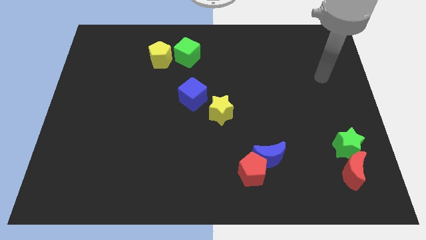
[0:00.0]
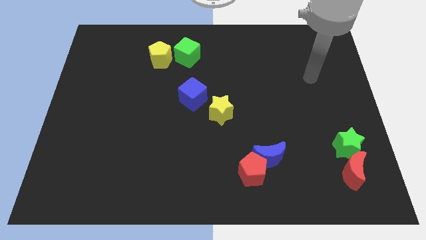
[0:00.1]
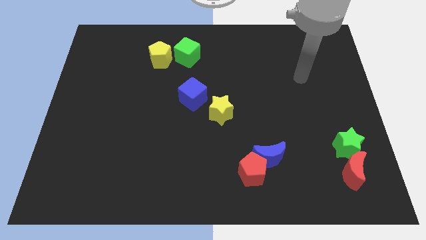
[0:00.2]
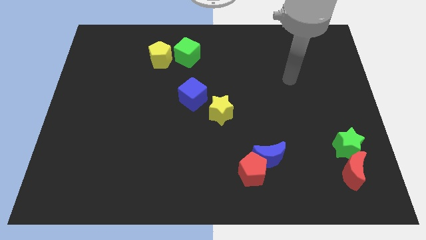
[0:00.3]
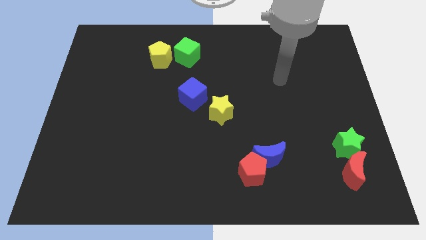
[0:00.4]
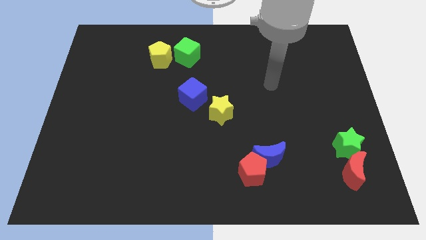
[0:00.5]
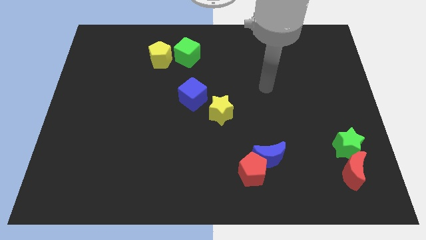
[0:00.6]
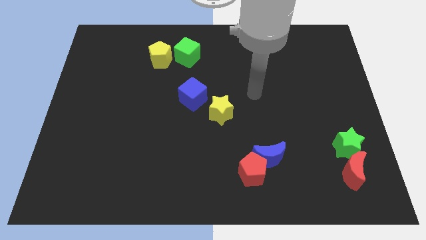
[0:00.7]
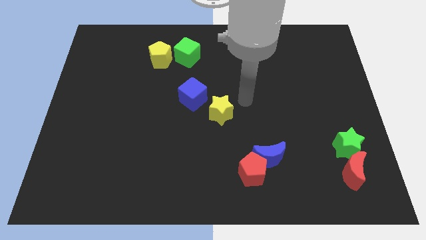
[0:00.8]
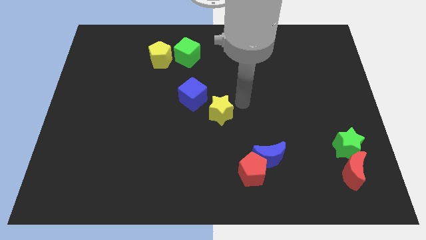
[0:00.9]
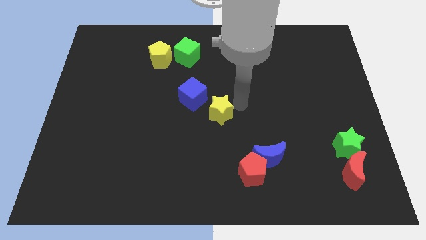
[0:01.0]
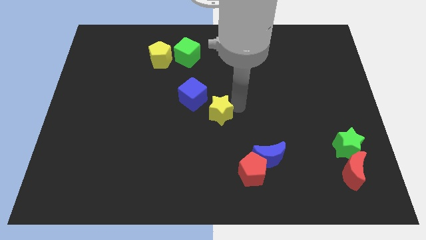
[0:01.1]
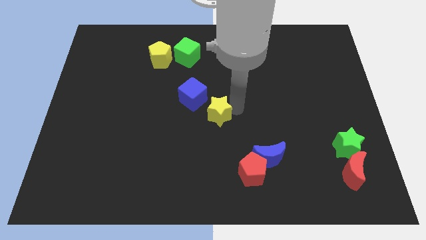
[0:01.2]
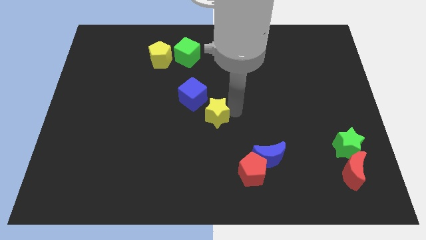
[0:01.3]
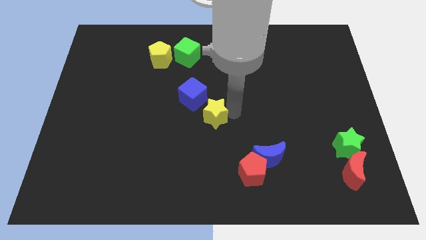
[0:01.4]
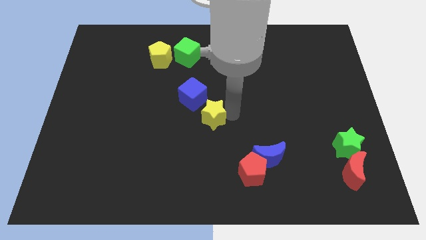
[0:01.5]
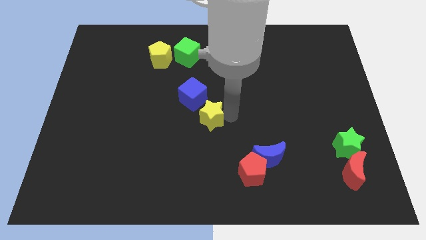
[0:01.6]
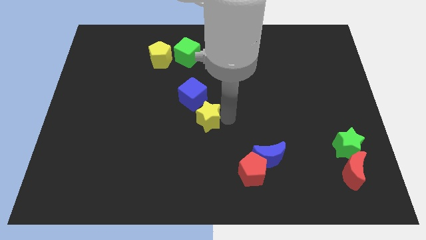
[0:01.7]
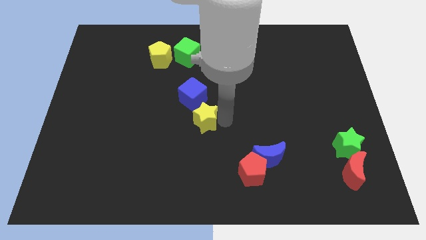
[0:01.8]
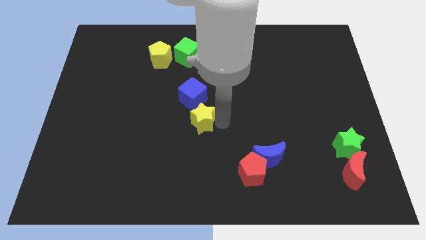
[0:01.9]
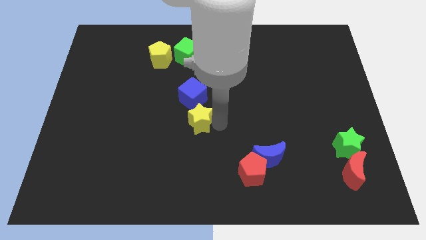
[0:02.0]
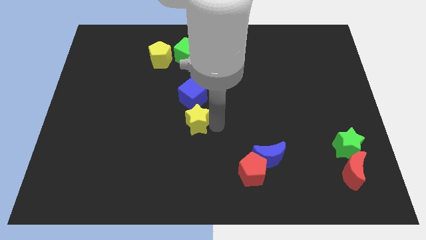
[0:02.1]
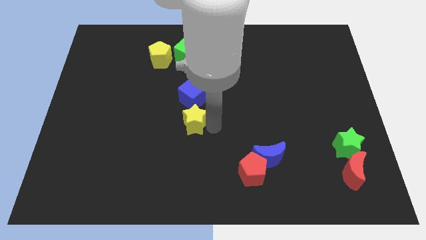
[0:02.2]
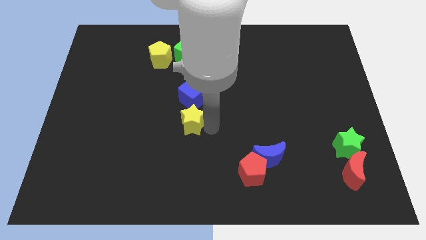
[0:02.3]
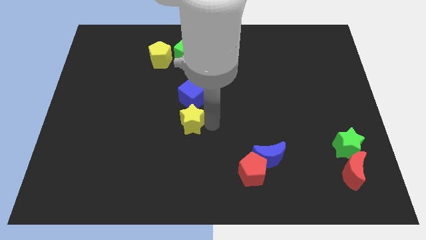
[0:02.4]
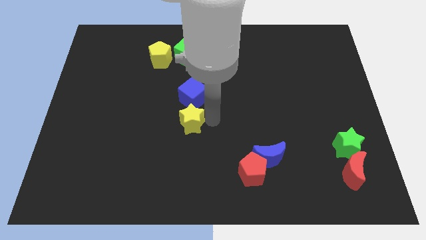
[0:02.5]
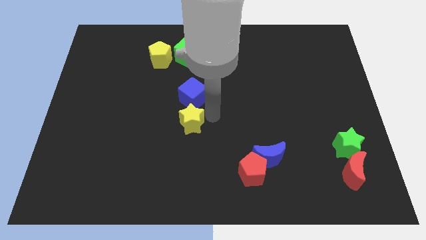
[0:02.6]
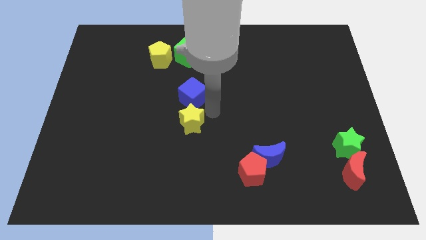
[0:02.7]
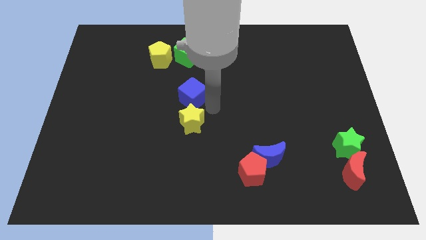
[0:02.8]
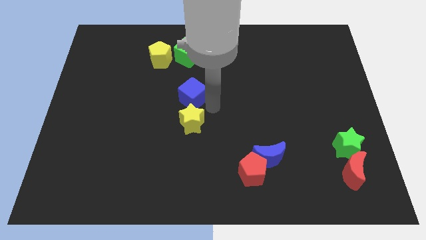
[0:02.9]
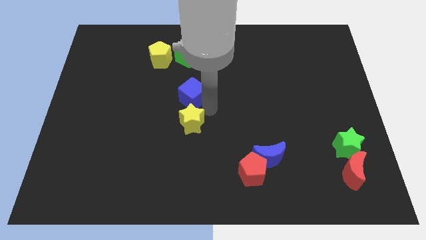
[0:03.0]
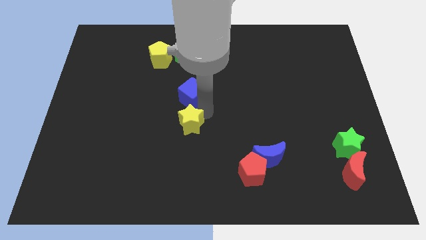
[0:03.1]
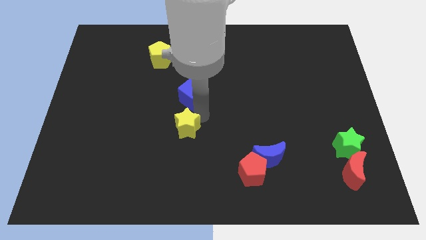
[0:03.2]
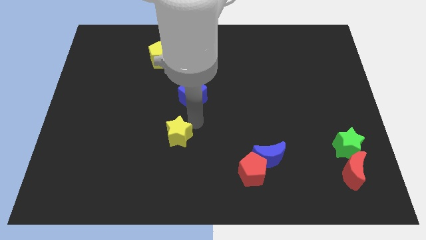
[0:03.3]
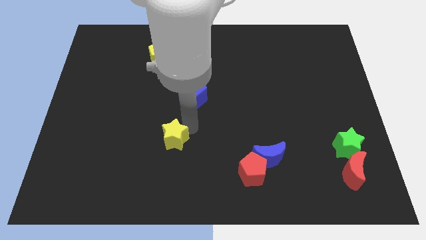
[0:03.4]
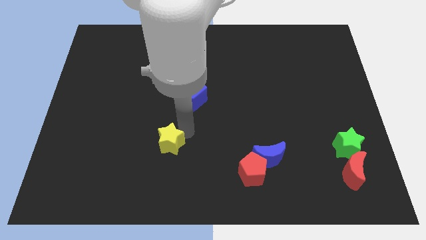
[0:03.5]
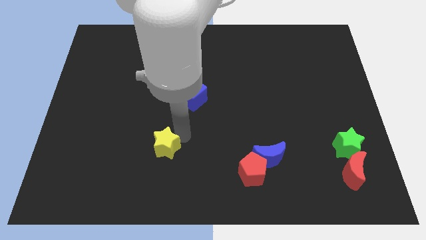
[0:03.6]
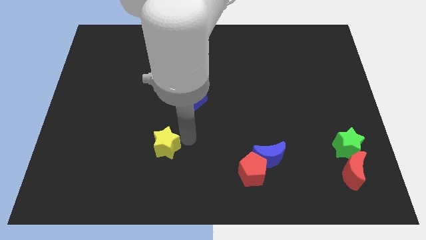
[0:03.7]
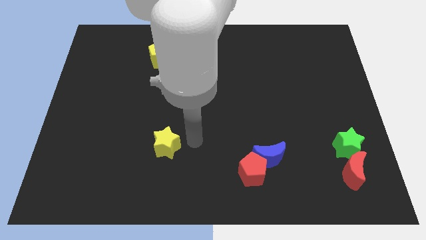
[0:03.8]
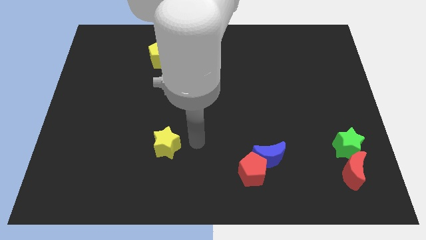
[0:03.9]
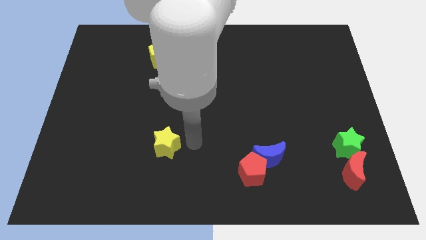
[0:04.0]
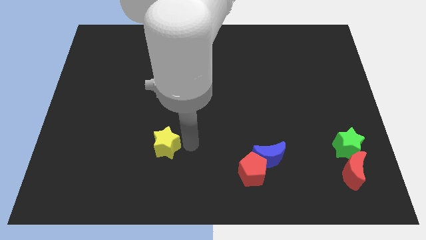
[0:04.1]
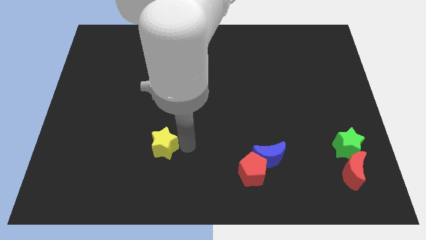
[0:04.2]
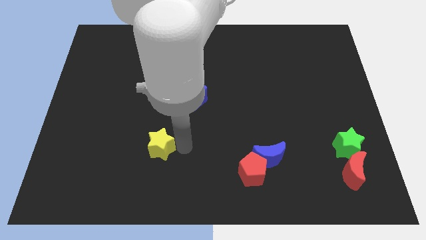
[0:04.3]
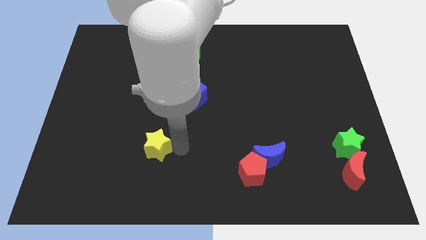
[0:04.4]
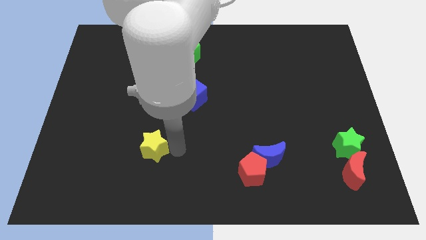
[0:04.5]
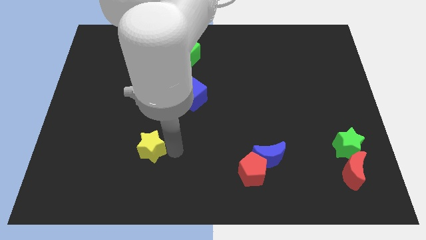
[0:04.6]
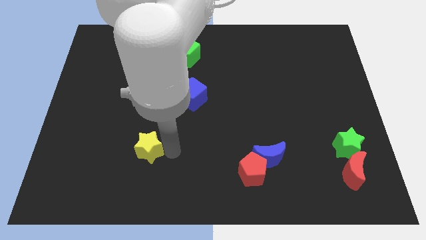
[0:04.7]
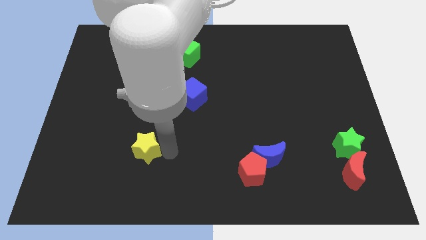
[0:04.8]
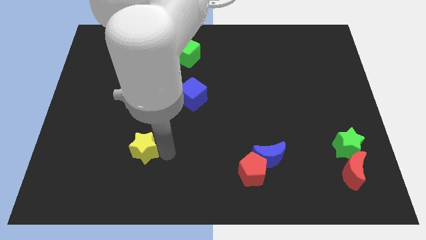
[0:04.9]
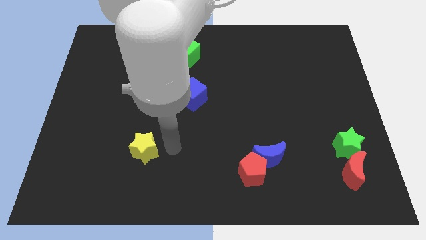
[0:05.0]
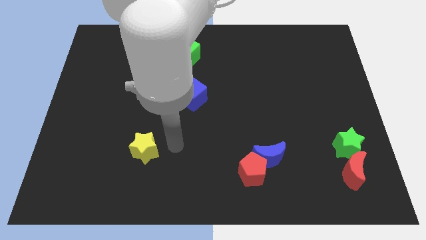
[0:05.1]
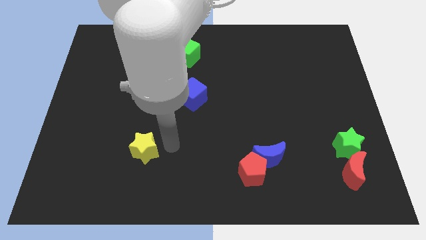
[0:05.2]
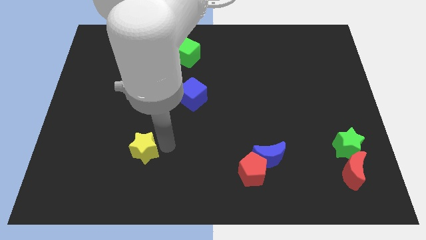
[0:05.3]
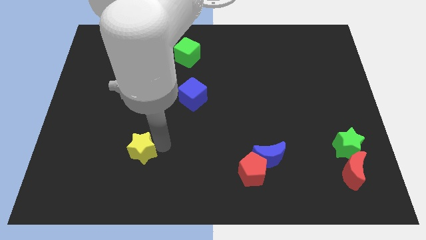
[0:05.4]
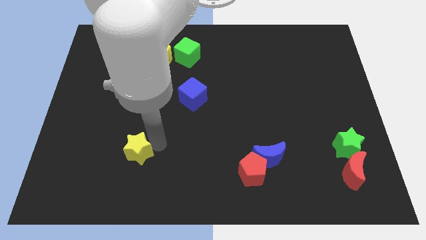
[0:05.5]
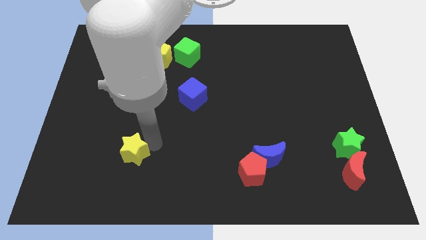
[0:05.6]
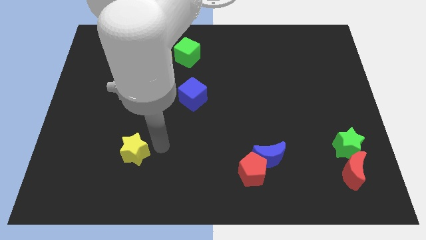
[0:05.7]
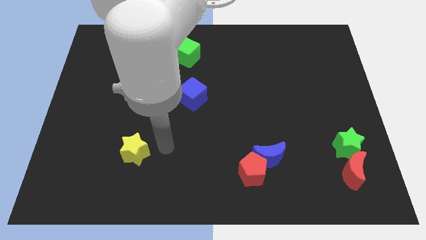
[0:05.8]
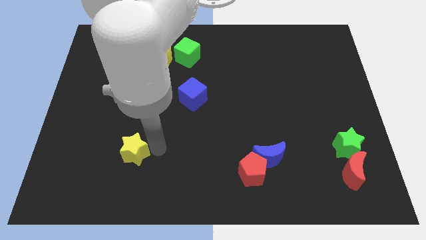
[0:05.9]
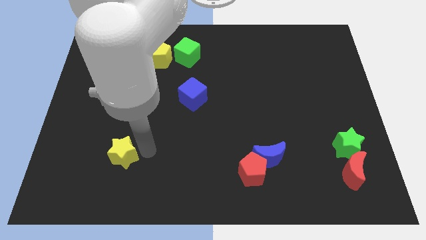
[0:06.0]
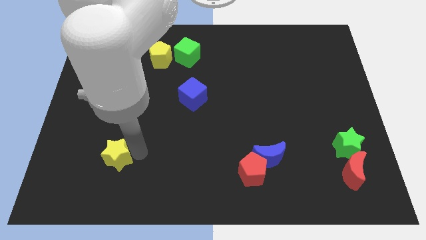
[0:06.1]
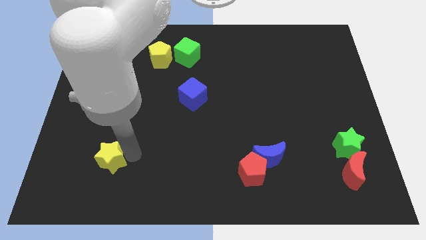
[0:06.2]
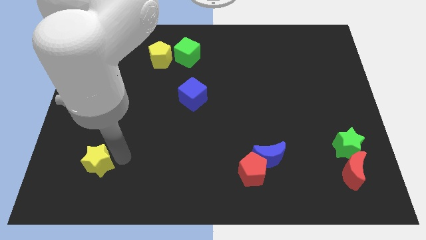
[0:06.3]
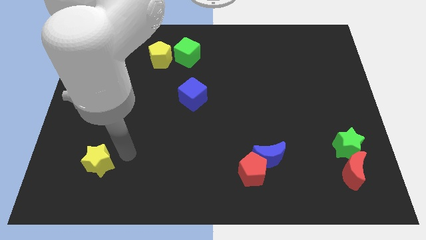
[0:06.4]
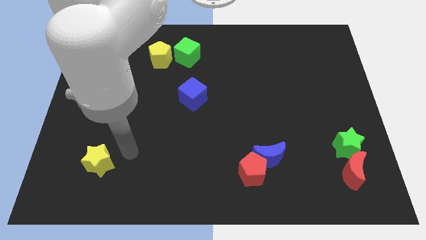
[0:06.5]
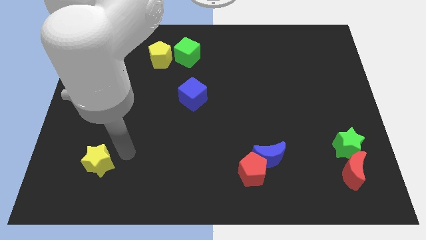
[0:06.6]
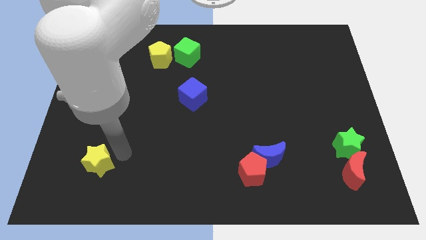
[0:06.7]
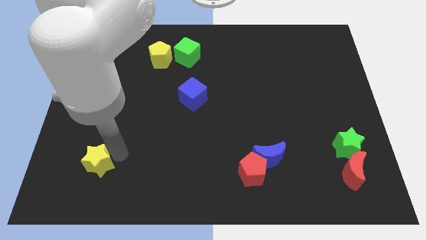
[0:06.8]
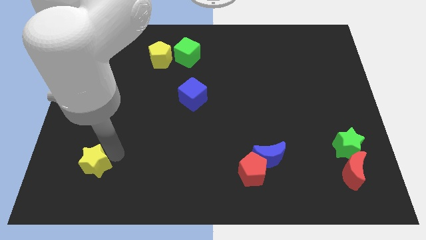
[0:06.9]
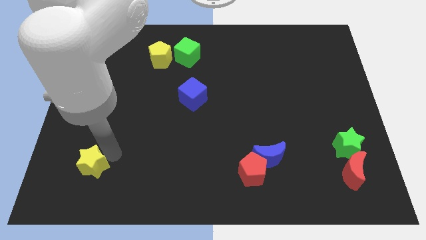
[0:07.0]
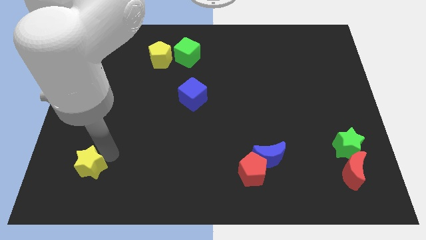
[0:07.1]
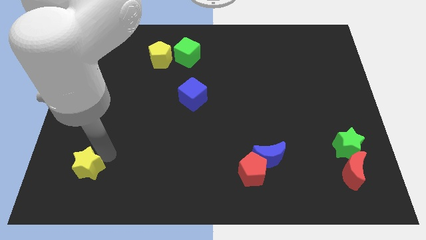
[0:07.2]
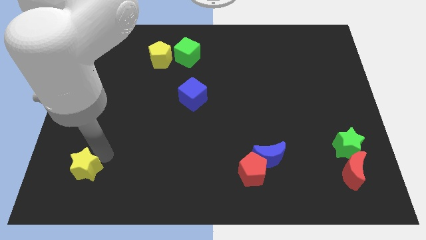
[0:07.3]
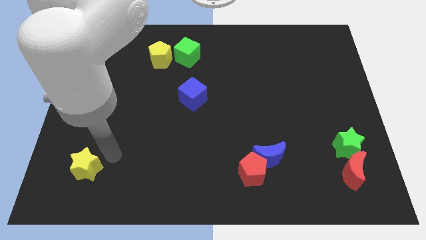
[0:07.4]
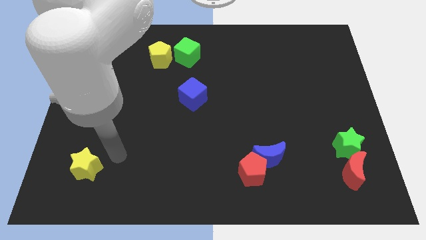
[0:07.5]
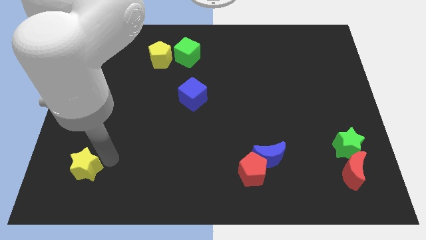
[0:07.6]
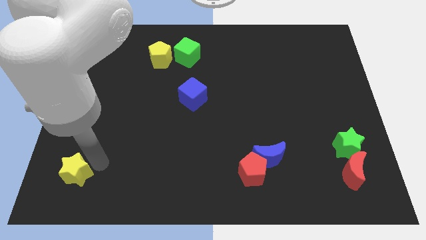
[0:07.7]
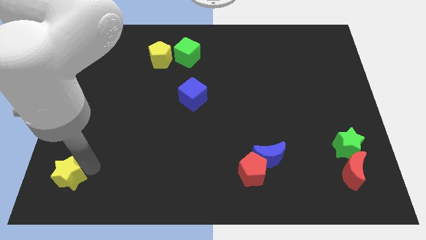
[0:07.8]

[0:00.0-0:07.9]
slide the yellow star to the bottom left of the board
